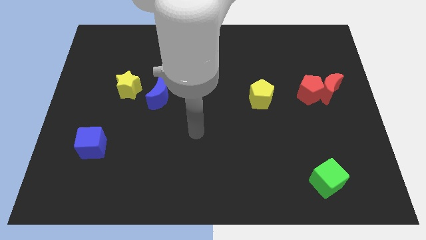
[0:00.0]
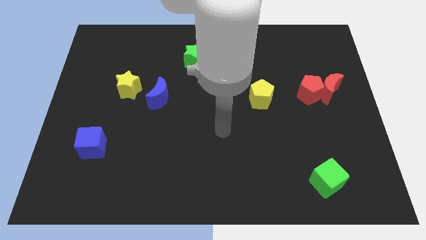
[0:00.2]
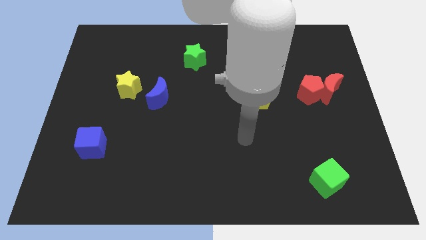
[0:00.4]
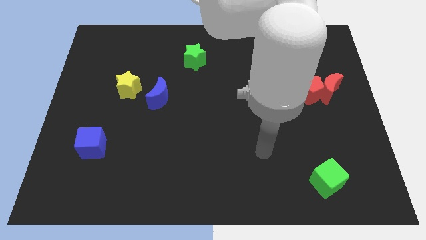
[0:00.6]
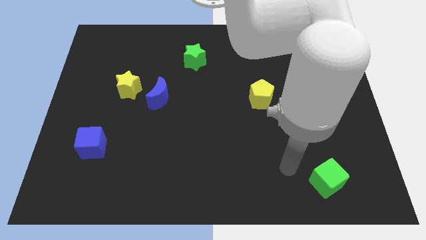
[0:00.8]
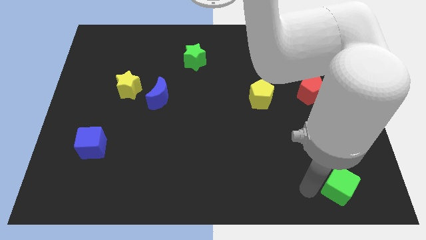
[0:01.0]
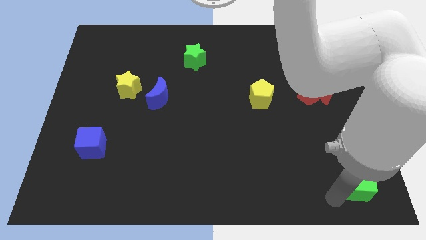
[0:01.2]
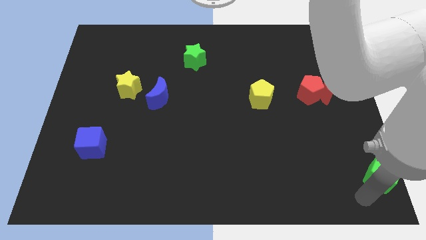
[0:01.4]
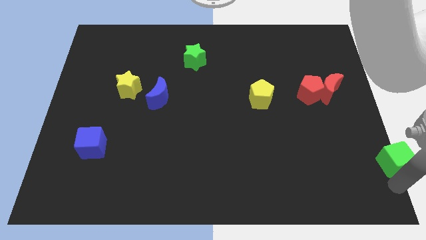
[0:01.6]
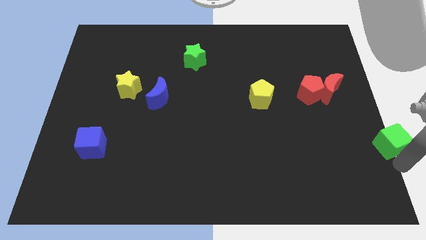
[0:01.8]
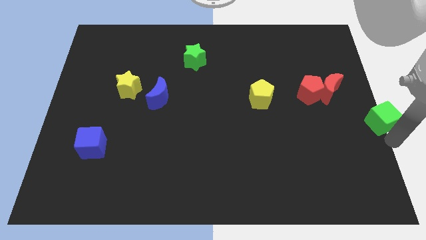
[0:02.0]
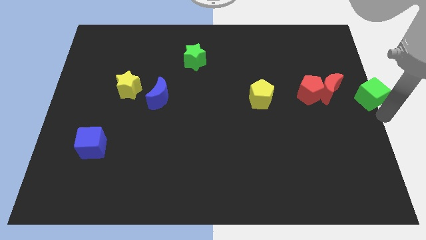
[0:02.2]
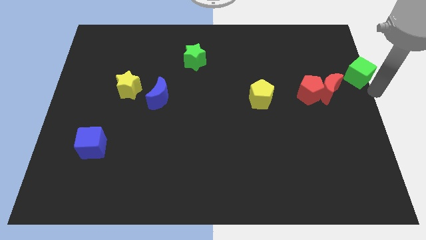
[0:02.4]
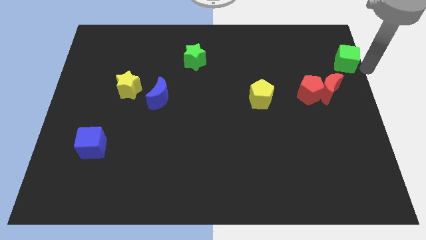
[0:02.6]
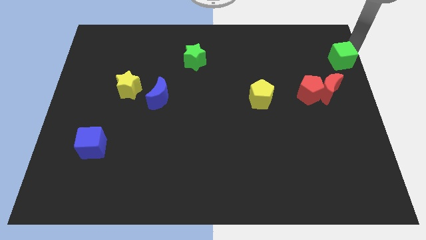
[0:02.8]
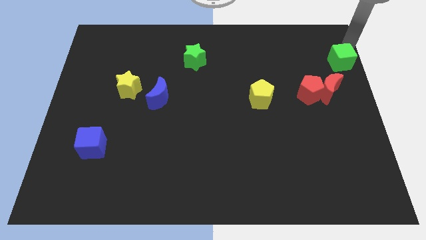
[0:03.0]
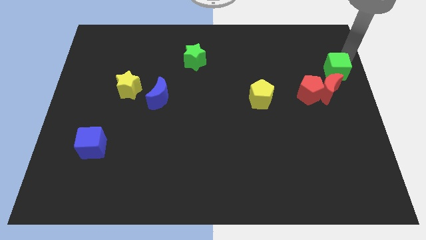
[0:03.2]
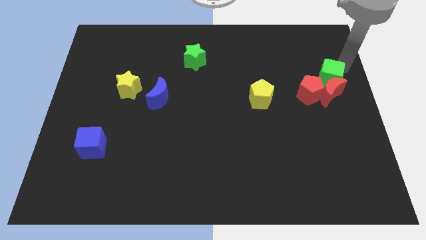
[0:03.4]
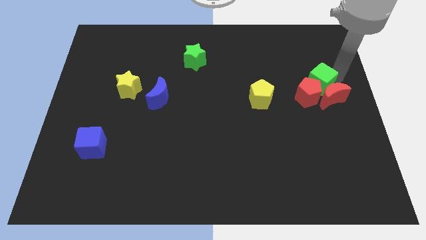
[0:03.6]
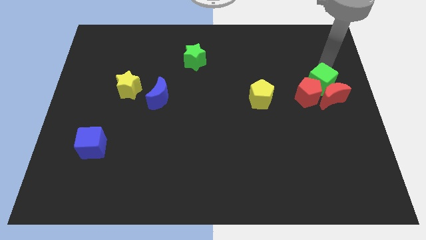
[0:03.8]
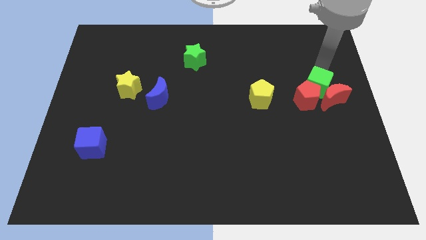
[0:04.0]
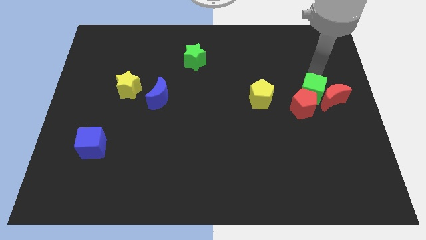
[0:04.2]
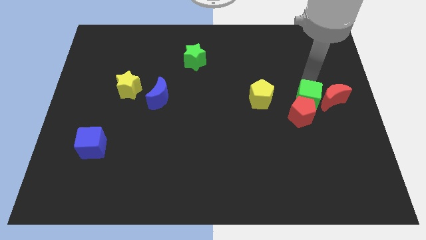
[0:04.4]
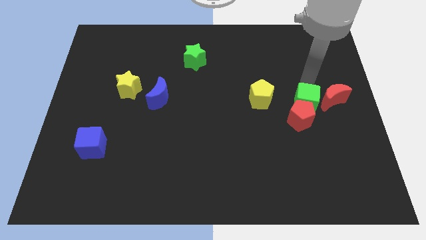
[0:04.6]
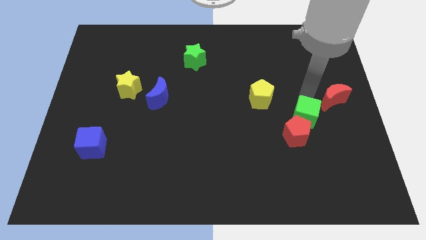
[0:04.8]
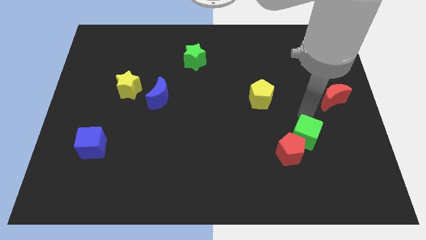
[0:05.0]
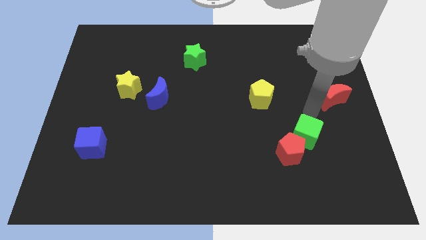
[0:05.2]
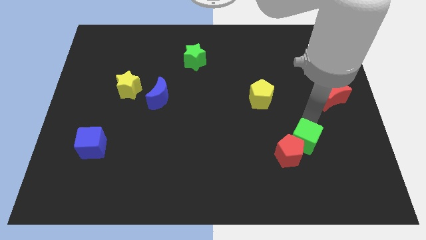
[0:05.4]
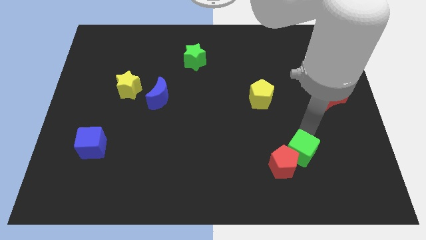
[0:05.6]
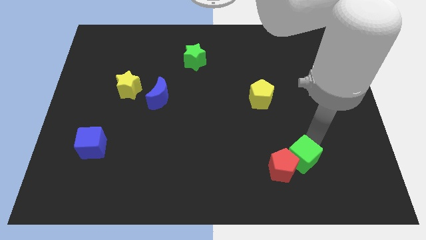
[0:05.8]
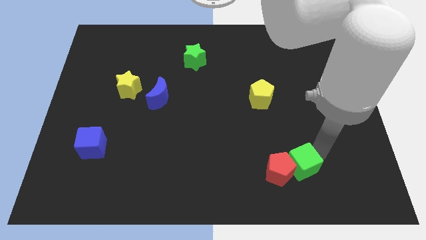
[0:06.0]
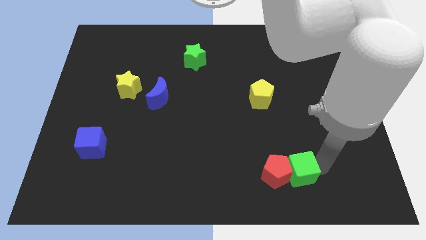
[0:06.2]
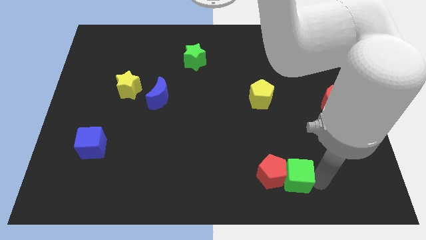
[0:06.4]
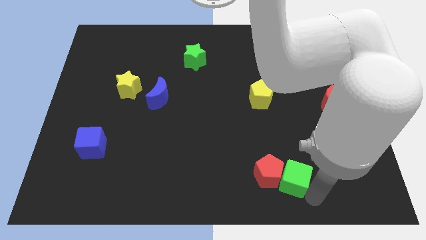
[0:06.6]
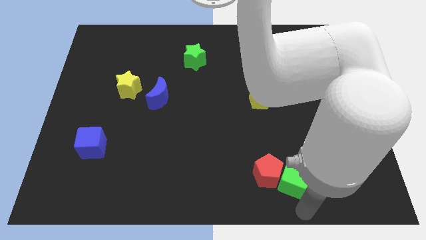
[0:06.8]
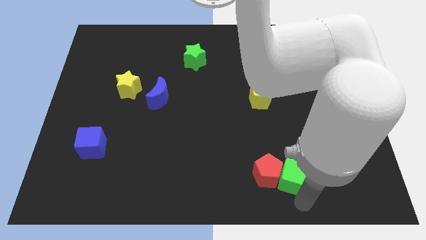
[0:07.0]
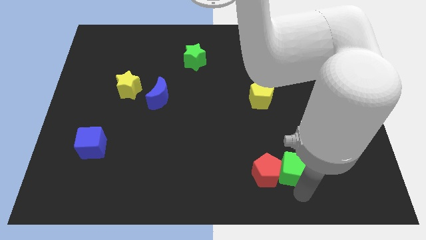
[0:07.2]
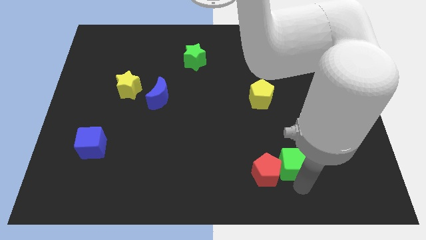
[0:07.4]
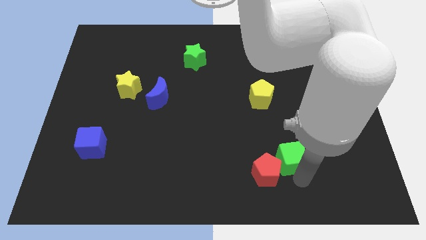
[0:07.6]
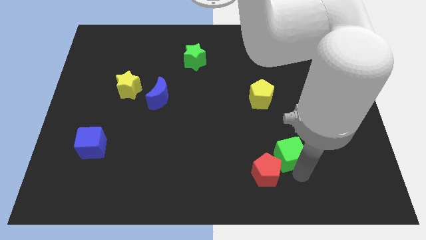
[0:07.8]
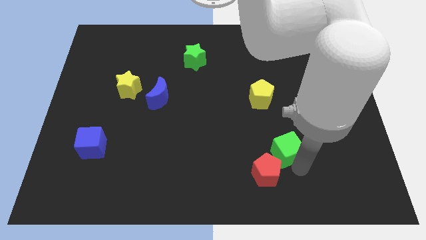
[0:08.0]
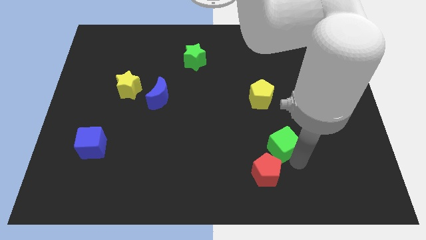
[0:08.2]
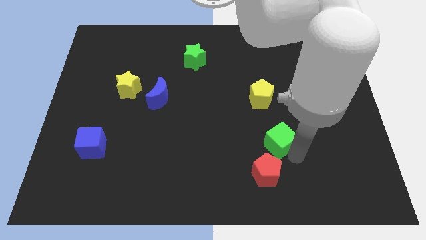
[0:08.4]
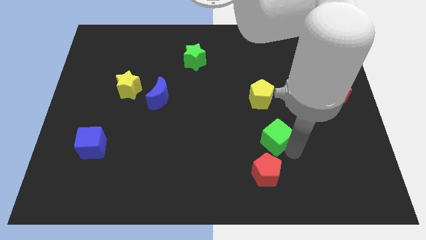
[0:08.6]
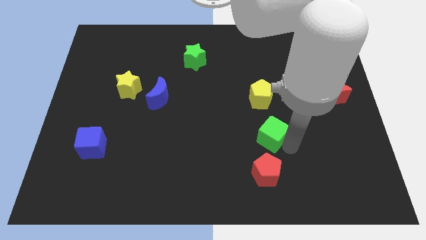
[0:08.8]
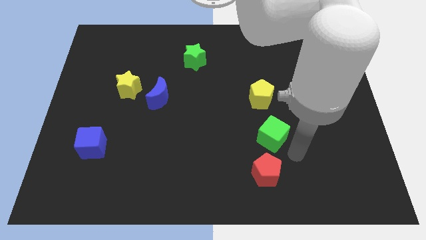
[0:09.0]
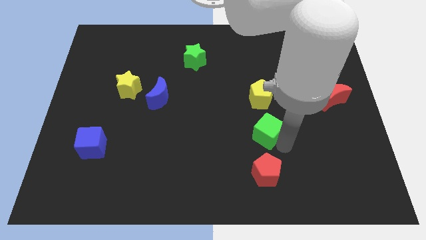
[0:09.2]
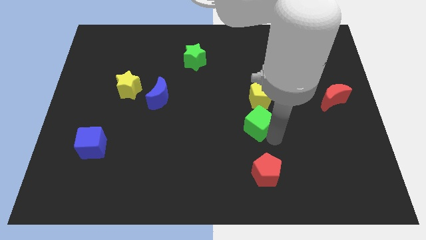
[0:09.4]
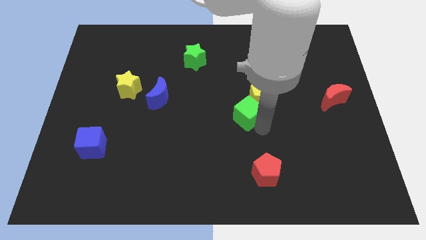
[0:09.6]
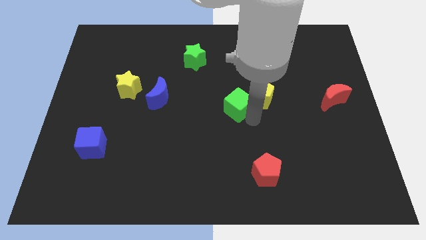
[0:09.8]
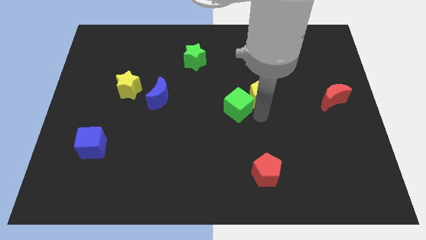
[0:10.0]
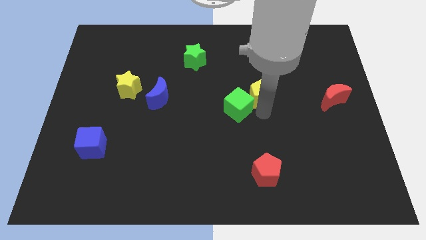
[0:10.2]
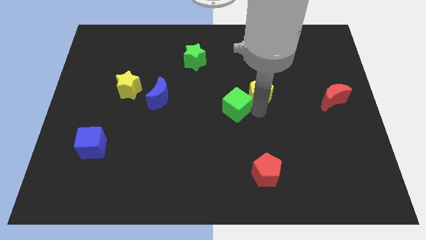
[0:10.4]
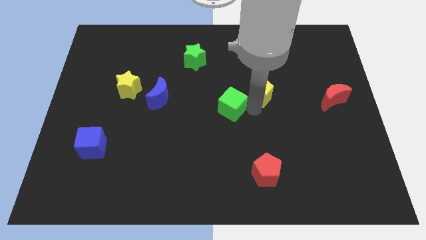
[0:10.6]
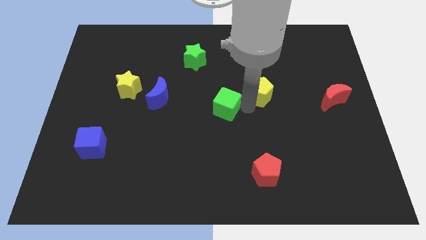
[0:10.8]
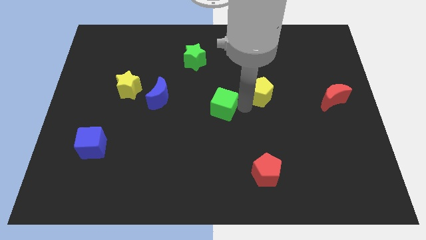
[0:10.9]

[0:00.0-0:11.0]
push the green cube to the right side of the blue moon

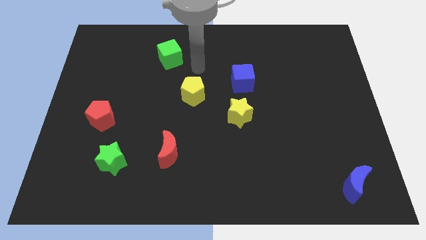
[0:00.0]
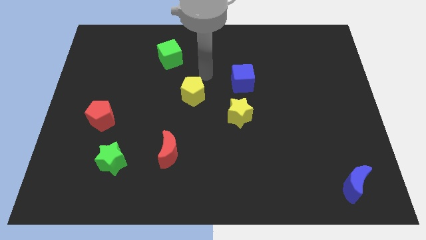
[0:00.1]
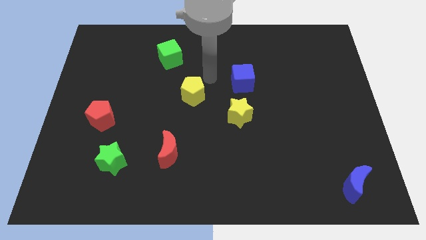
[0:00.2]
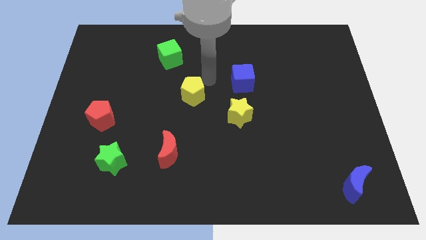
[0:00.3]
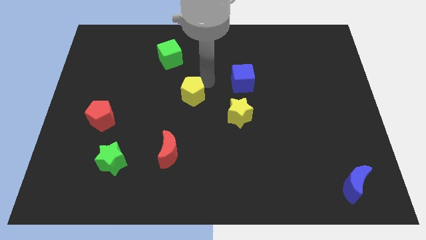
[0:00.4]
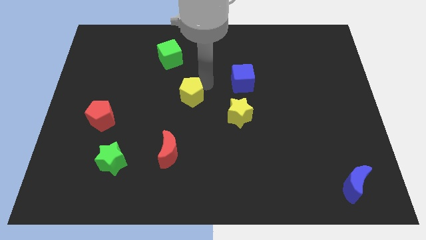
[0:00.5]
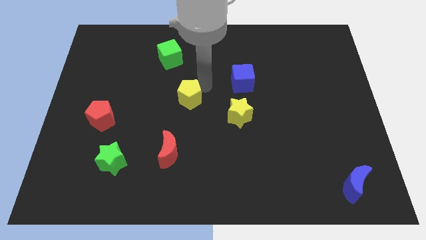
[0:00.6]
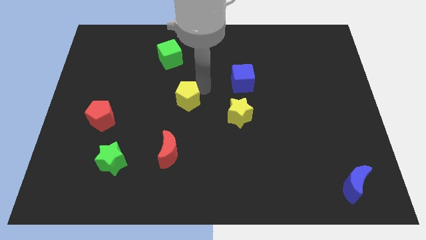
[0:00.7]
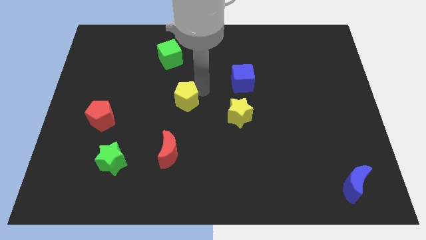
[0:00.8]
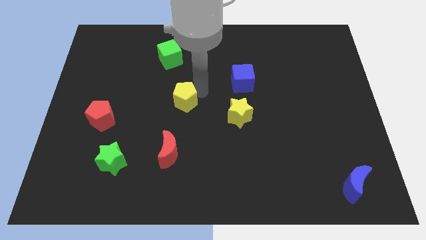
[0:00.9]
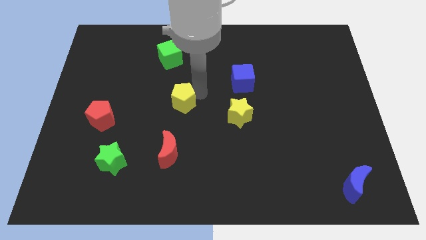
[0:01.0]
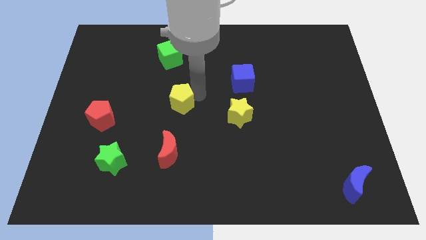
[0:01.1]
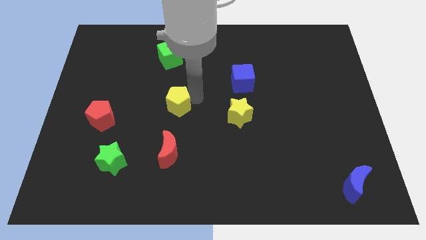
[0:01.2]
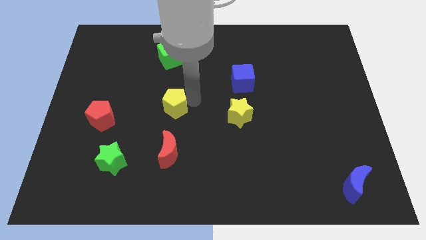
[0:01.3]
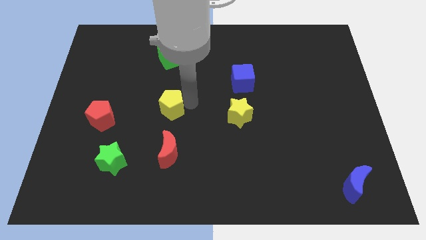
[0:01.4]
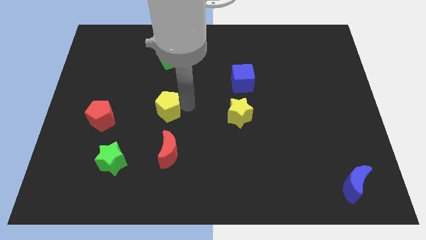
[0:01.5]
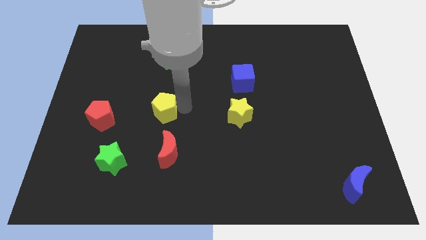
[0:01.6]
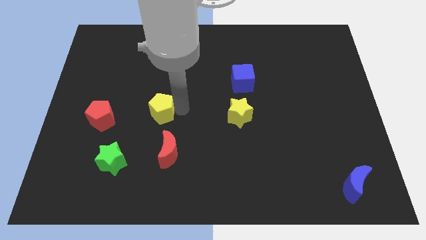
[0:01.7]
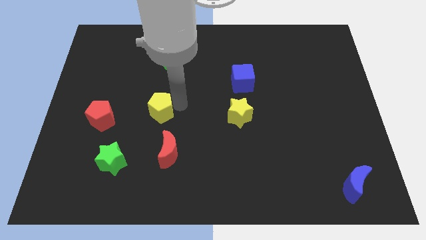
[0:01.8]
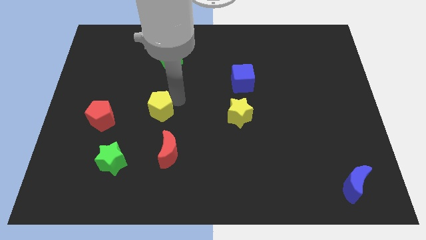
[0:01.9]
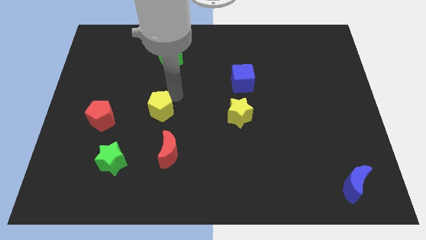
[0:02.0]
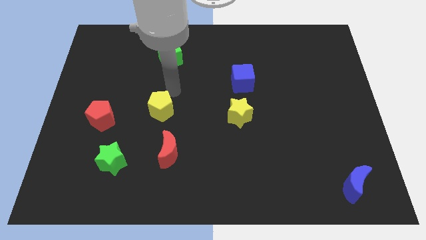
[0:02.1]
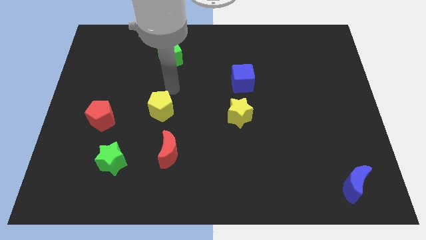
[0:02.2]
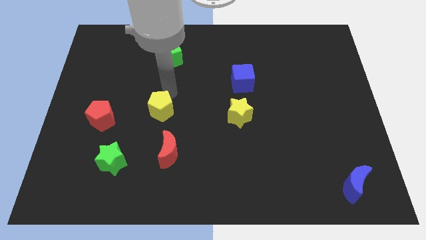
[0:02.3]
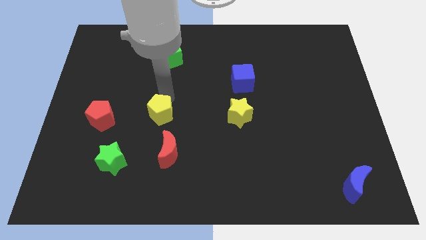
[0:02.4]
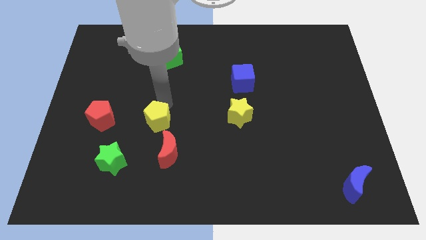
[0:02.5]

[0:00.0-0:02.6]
slide the yellow pentagon diagonally up and to the left of the red moon
